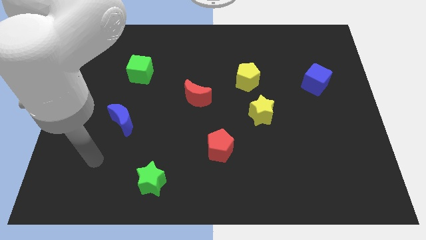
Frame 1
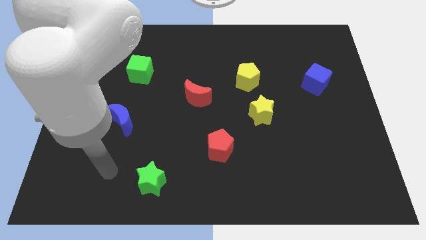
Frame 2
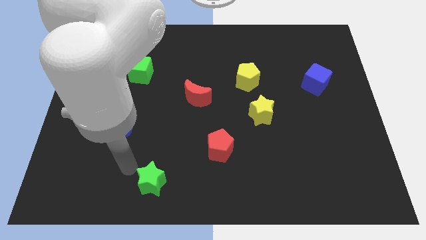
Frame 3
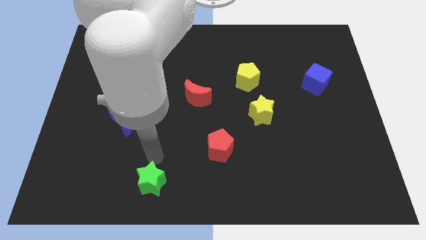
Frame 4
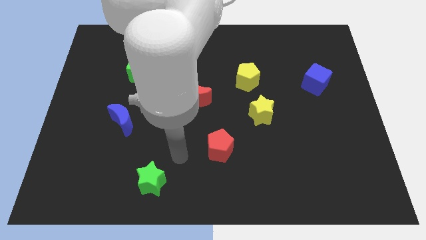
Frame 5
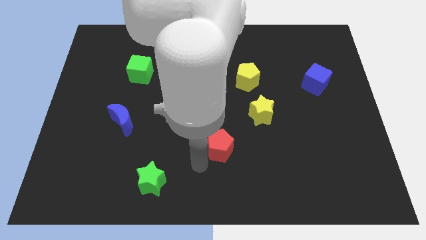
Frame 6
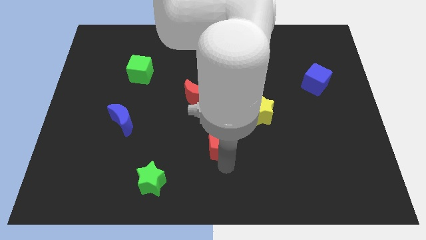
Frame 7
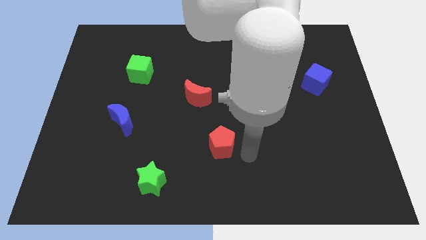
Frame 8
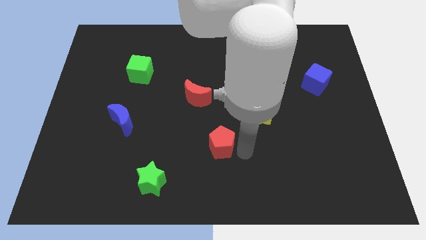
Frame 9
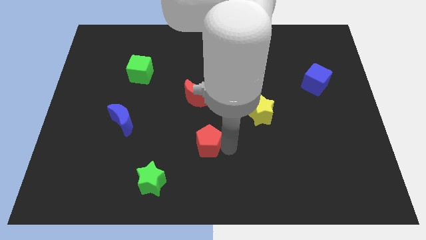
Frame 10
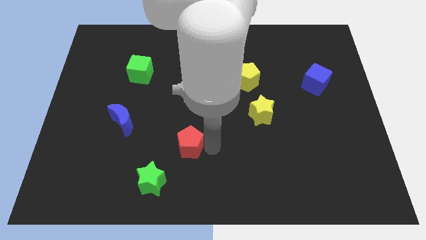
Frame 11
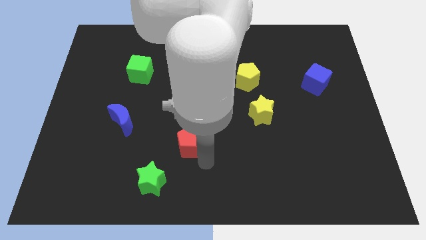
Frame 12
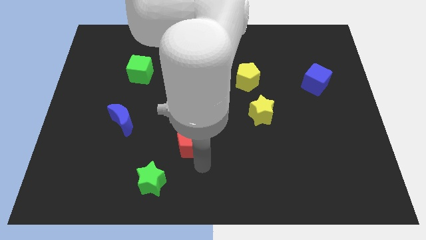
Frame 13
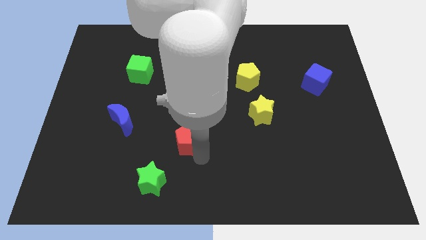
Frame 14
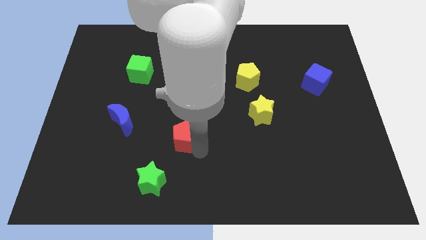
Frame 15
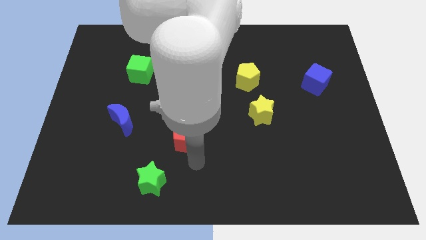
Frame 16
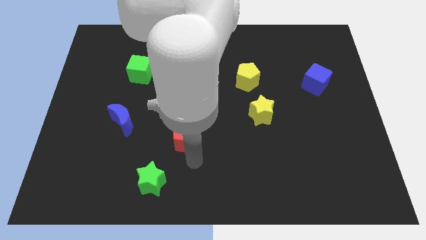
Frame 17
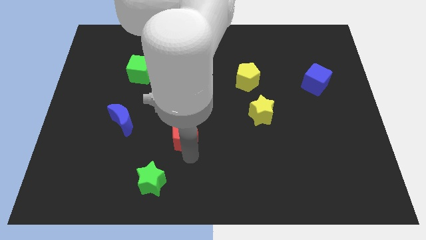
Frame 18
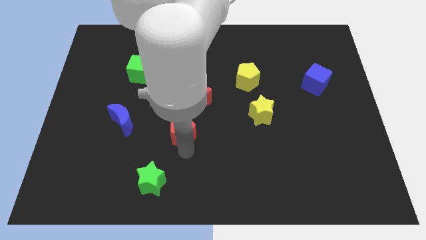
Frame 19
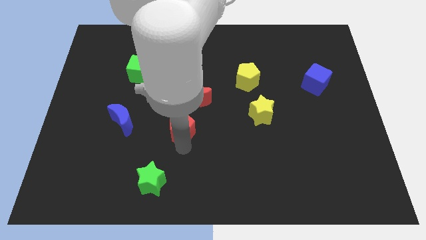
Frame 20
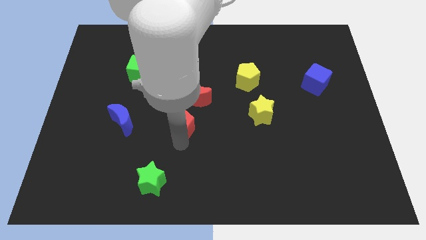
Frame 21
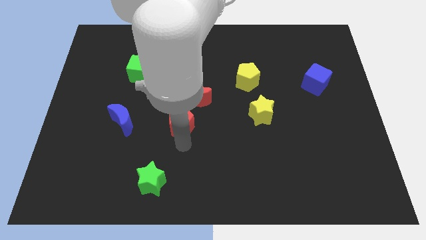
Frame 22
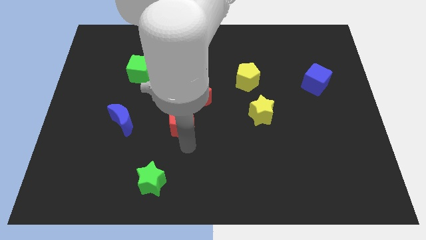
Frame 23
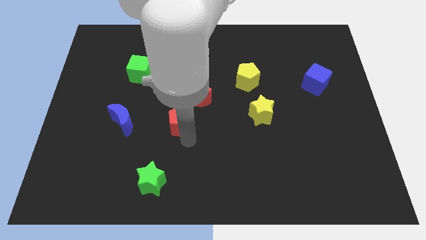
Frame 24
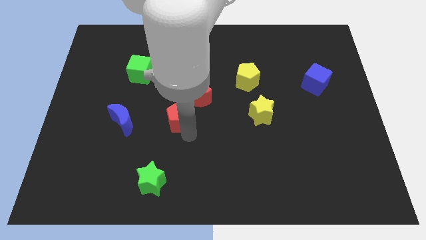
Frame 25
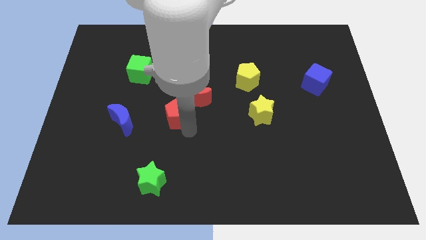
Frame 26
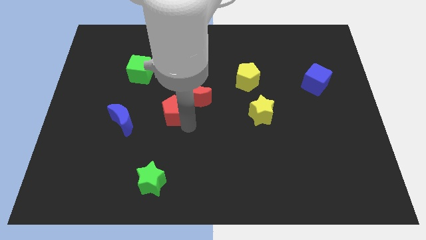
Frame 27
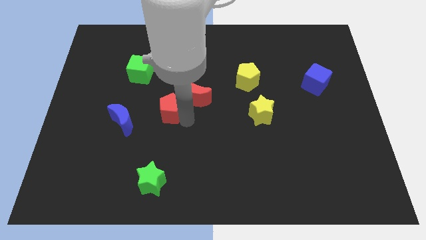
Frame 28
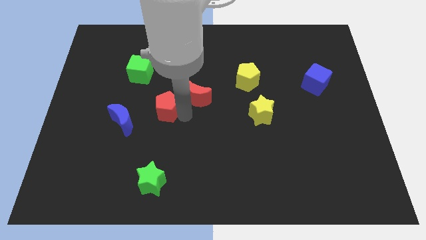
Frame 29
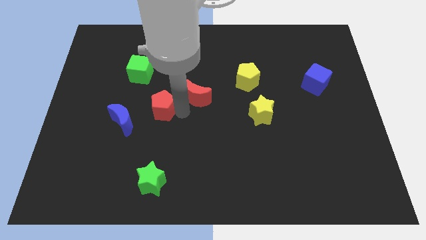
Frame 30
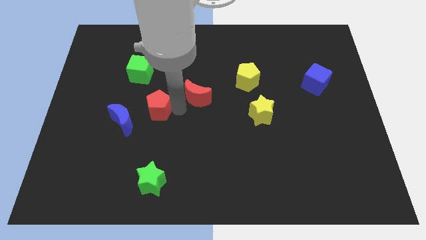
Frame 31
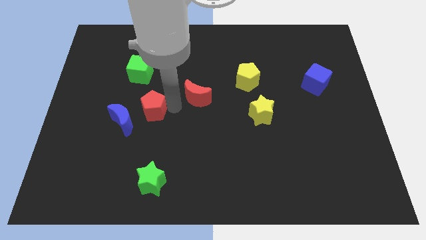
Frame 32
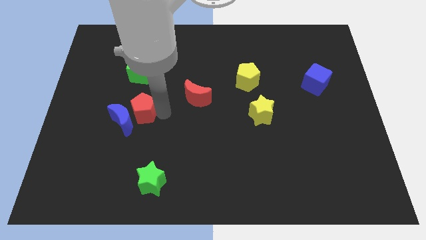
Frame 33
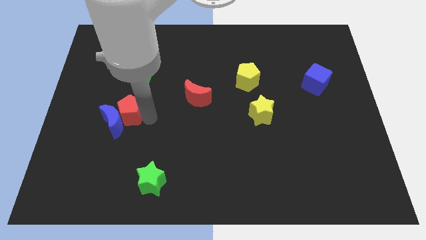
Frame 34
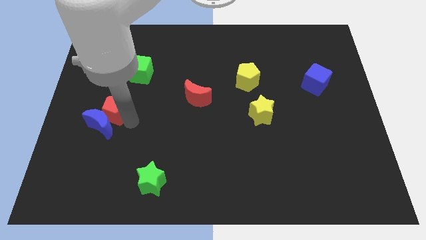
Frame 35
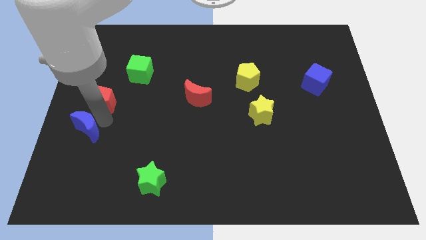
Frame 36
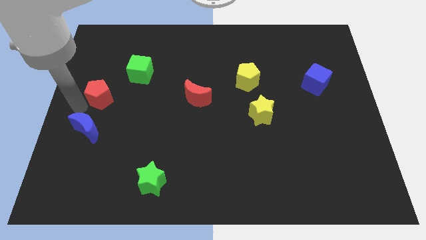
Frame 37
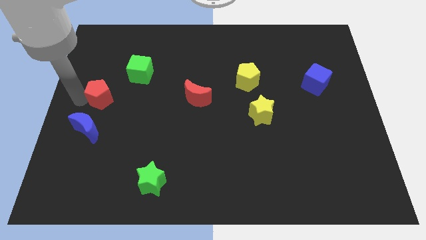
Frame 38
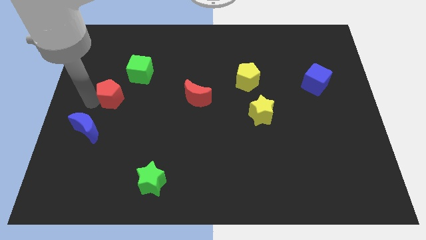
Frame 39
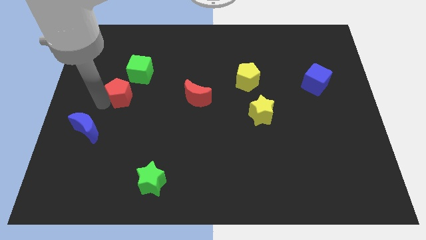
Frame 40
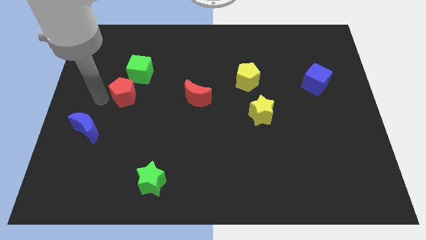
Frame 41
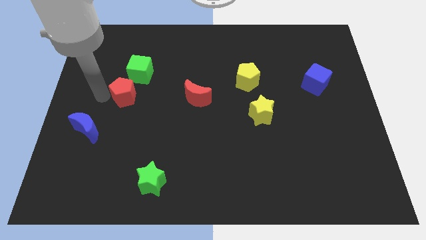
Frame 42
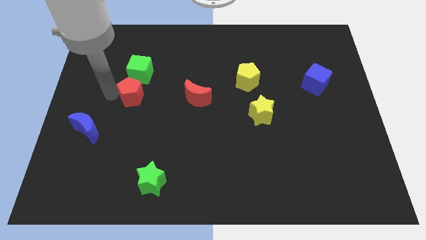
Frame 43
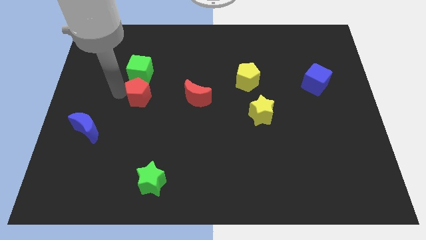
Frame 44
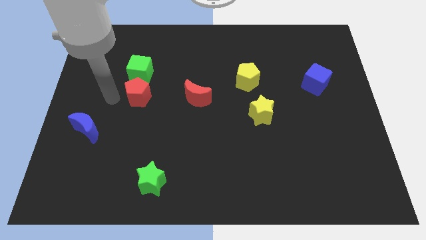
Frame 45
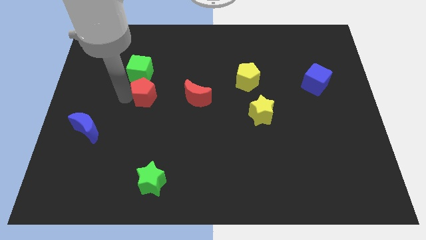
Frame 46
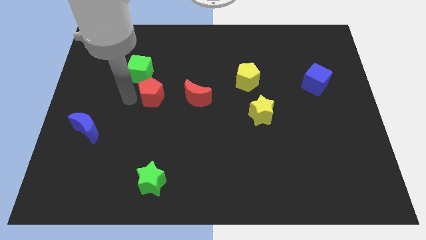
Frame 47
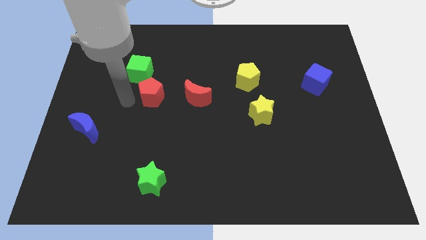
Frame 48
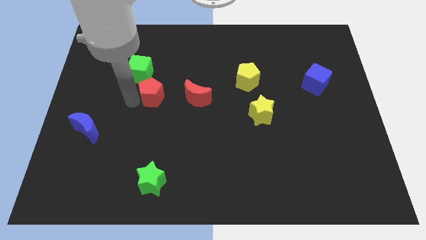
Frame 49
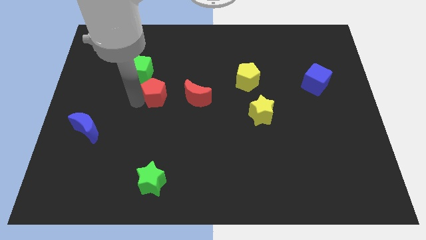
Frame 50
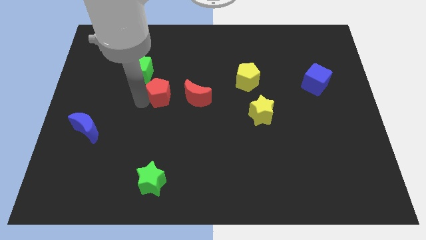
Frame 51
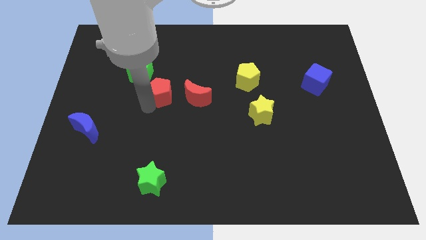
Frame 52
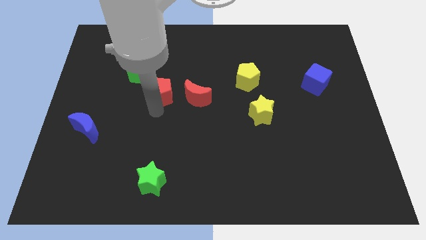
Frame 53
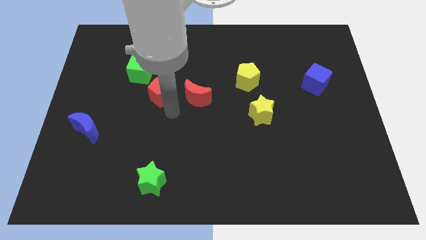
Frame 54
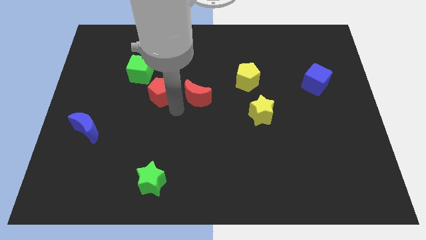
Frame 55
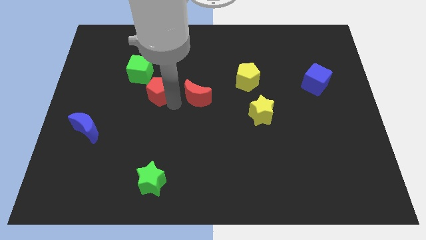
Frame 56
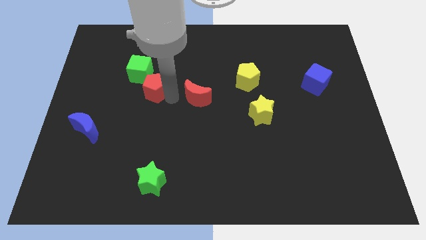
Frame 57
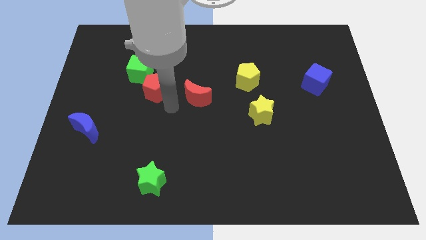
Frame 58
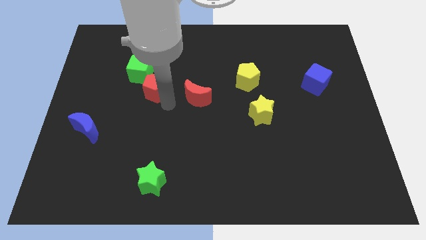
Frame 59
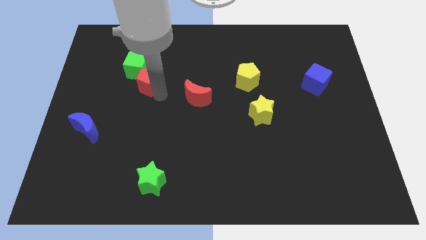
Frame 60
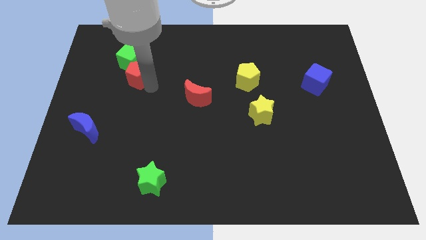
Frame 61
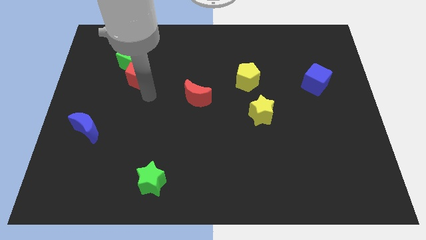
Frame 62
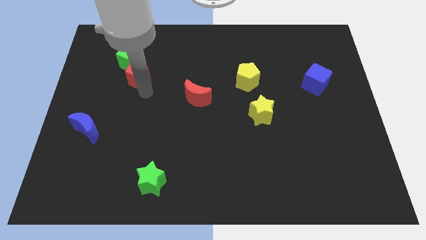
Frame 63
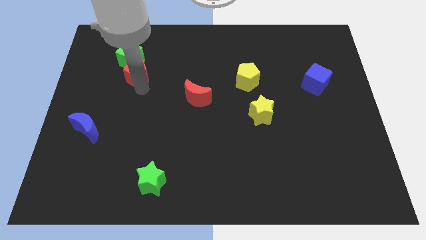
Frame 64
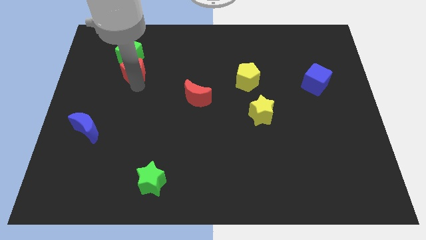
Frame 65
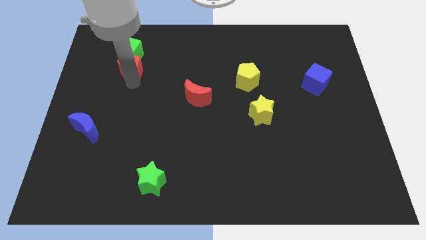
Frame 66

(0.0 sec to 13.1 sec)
slide the red pentagon towards the green cube

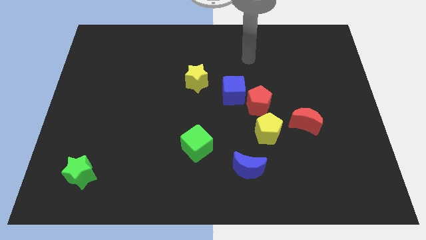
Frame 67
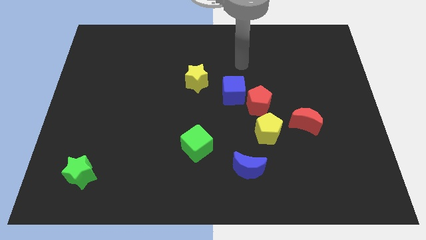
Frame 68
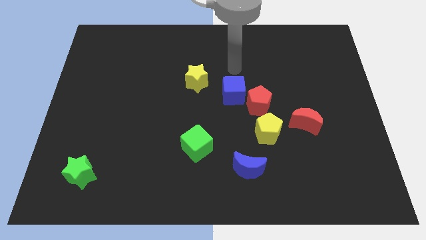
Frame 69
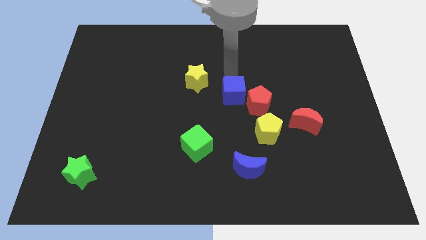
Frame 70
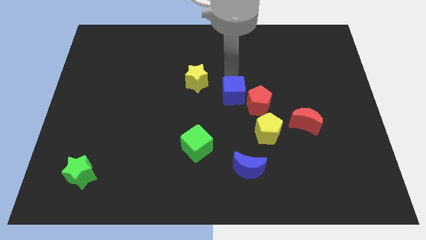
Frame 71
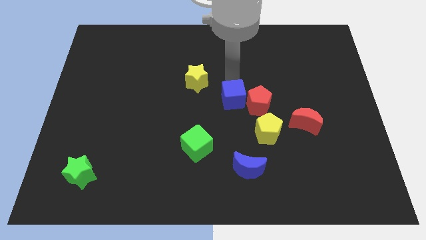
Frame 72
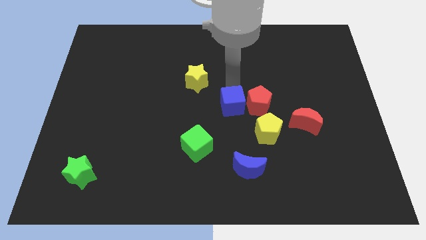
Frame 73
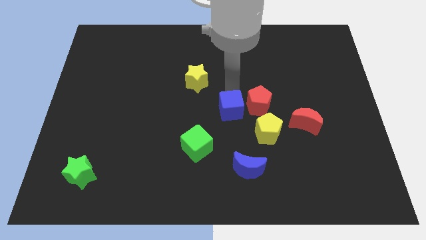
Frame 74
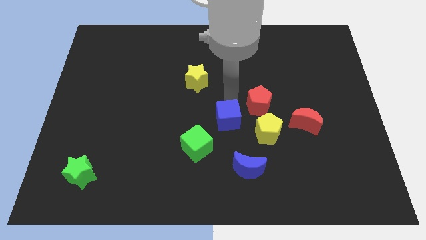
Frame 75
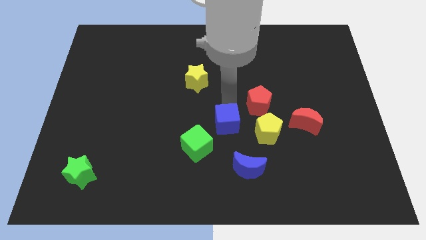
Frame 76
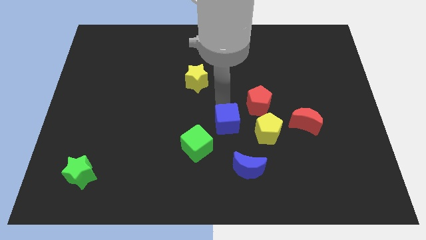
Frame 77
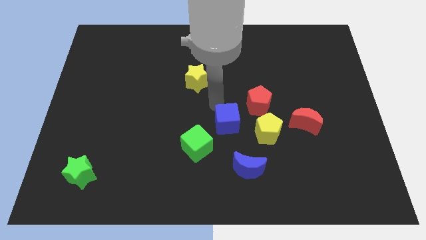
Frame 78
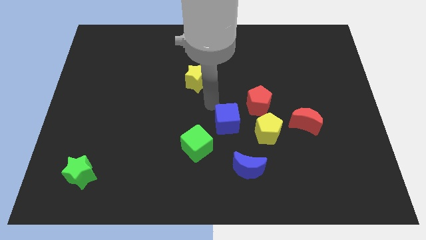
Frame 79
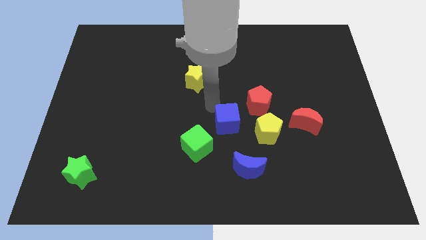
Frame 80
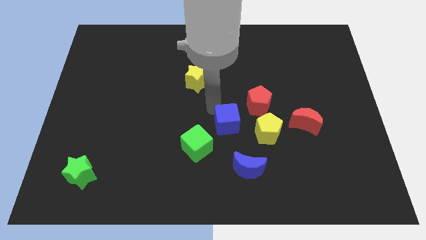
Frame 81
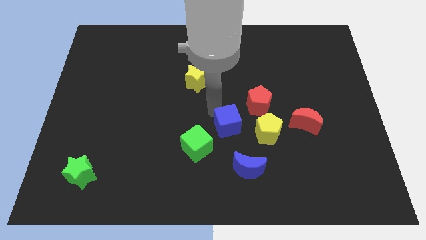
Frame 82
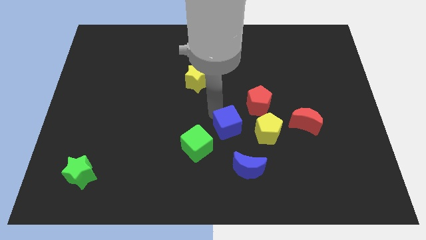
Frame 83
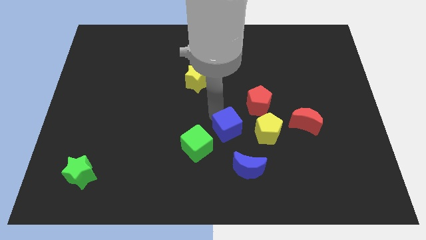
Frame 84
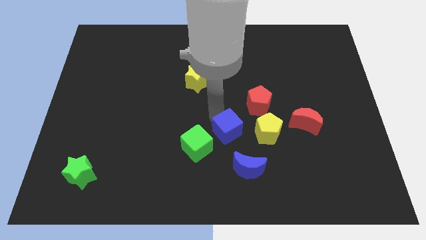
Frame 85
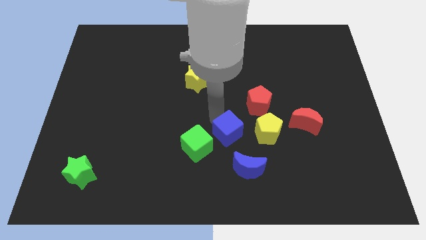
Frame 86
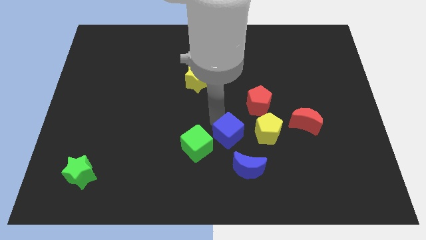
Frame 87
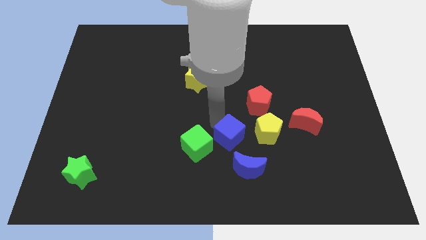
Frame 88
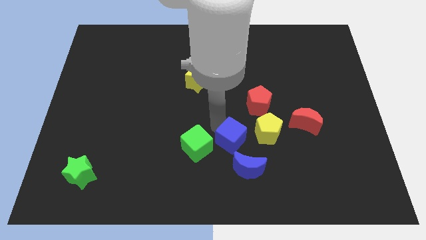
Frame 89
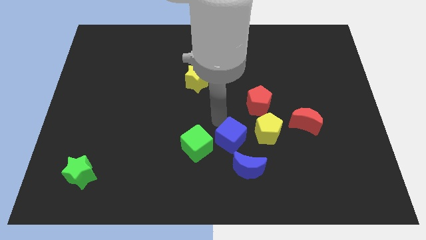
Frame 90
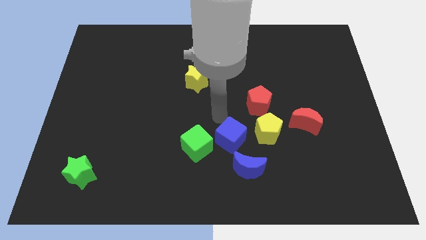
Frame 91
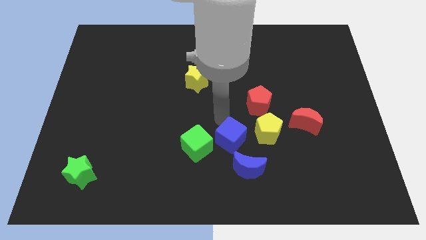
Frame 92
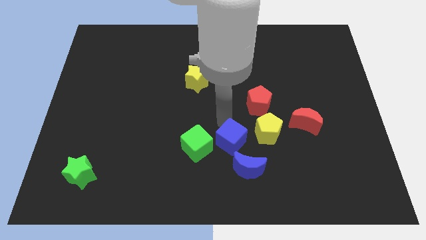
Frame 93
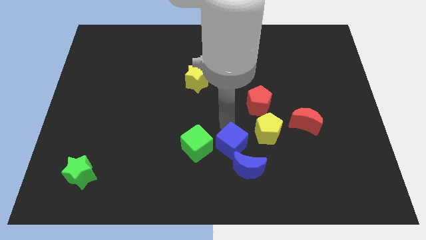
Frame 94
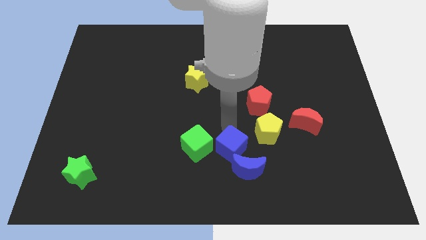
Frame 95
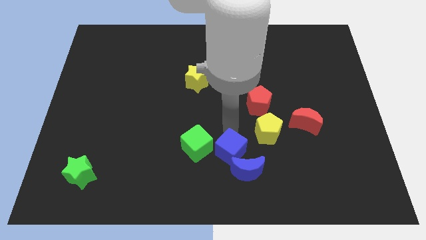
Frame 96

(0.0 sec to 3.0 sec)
push the blue cube close to the blue moon
